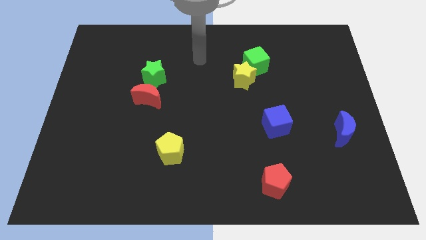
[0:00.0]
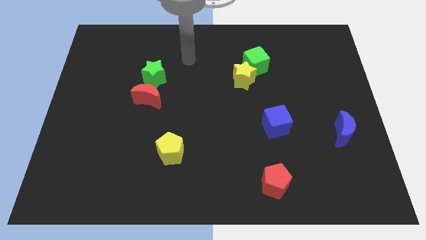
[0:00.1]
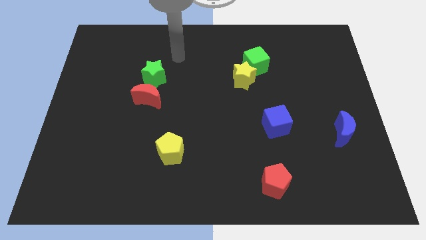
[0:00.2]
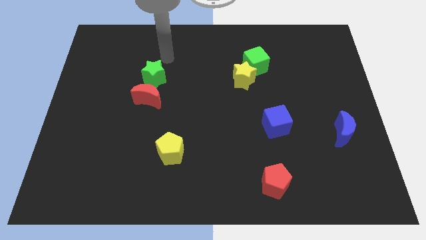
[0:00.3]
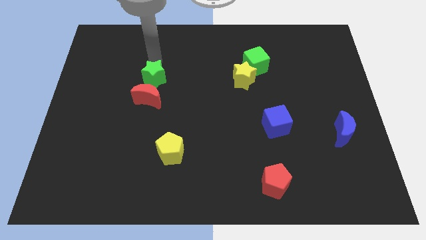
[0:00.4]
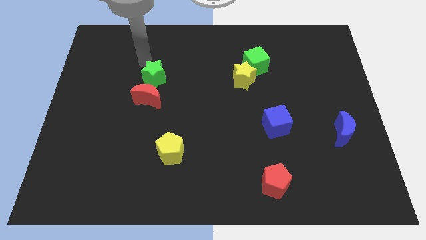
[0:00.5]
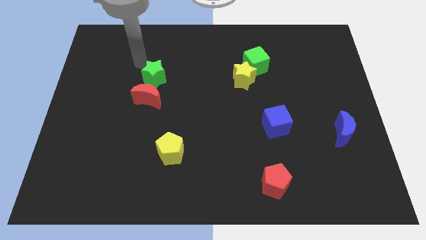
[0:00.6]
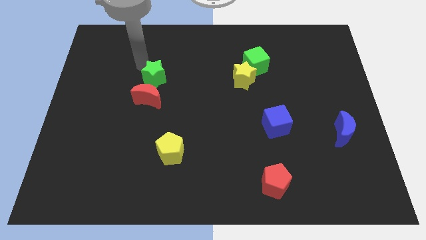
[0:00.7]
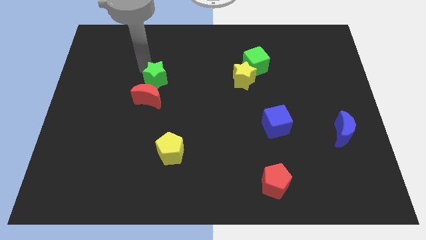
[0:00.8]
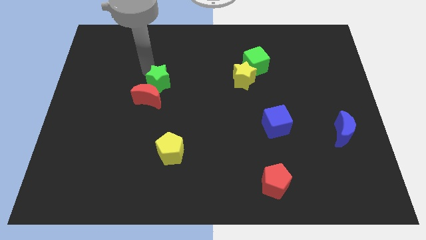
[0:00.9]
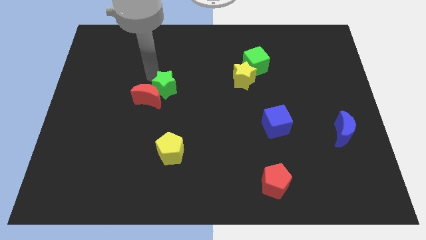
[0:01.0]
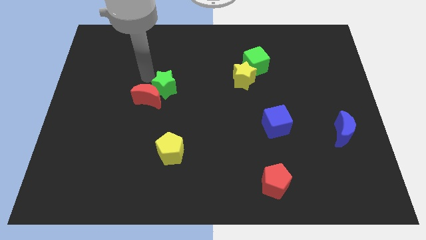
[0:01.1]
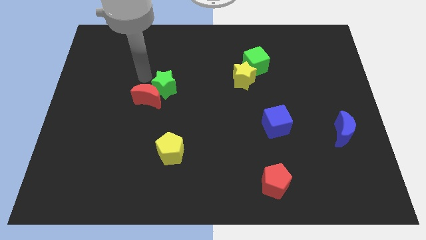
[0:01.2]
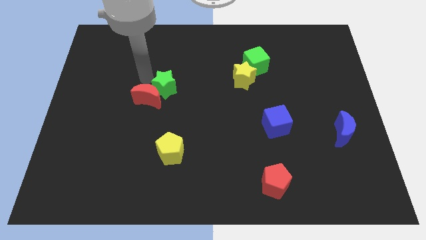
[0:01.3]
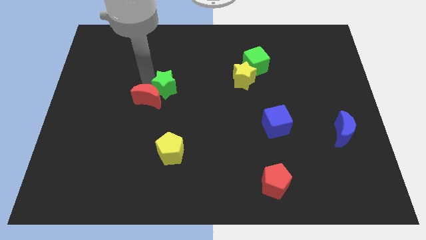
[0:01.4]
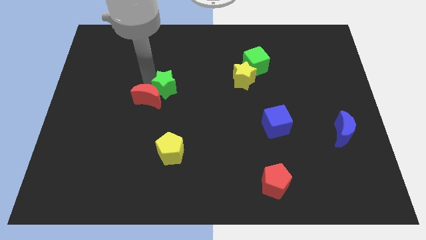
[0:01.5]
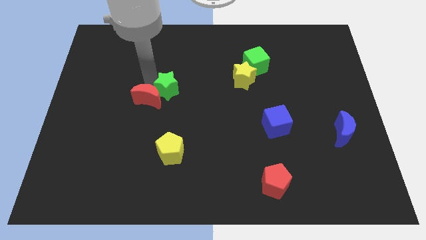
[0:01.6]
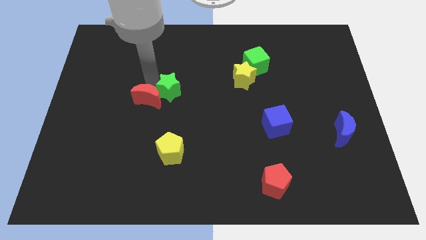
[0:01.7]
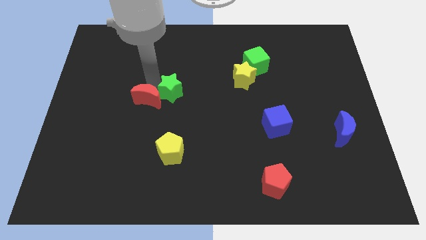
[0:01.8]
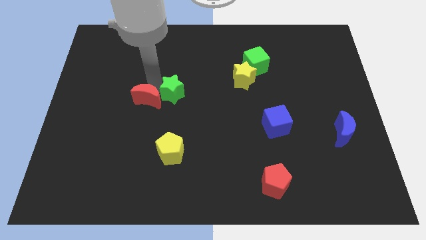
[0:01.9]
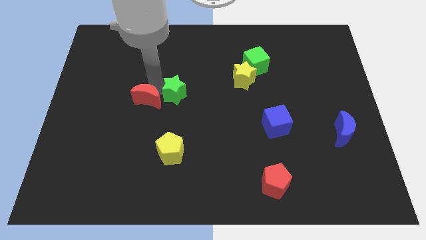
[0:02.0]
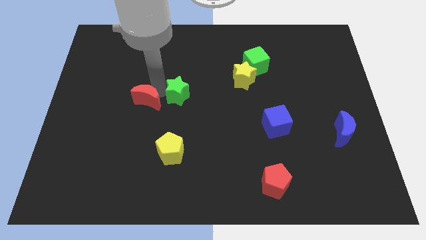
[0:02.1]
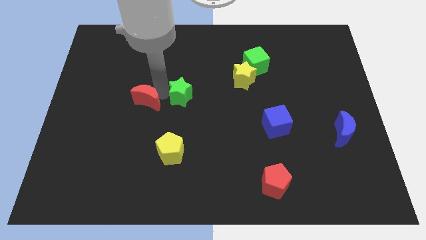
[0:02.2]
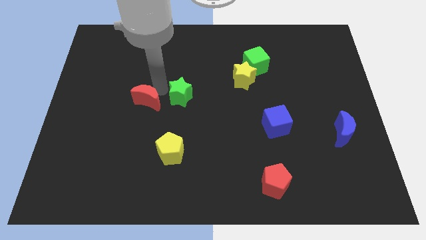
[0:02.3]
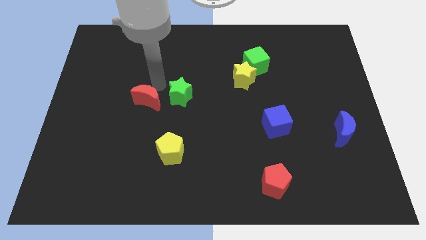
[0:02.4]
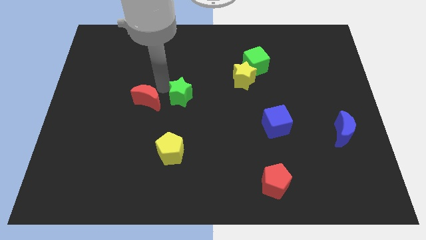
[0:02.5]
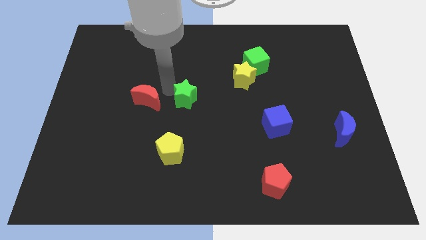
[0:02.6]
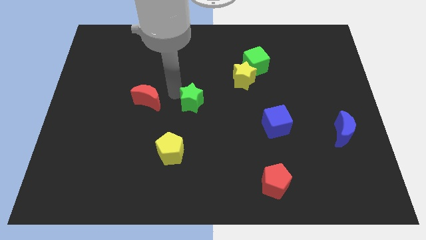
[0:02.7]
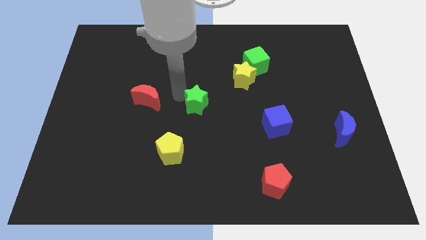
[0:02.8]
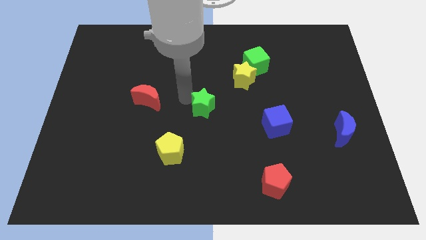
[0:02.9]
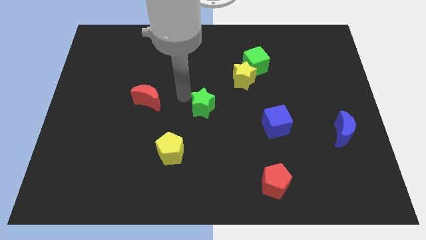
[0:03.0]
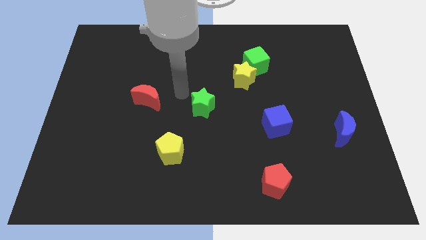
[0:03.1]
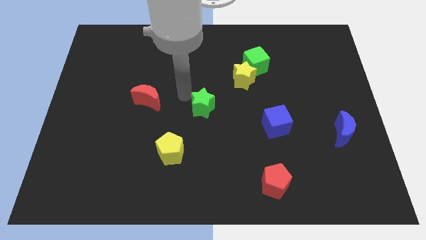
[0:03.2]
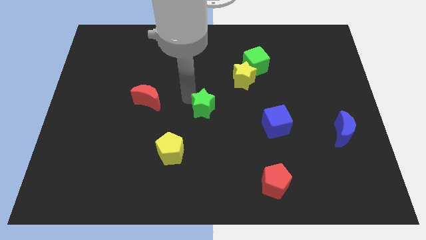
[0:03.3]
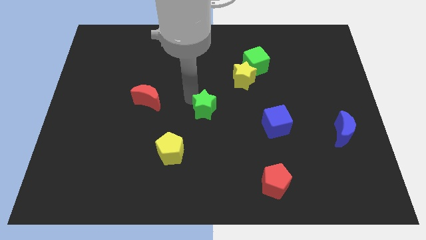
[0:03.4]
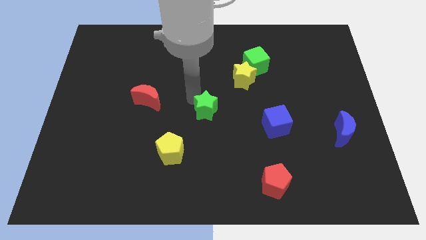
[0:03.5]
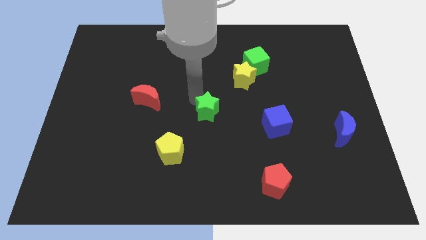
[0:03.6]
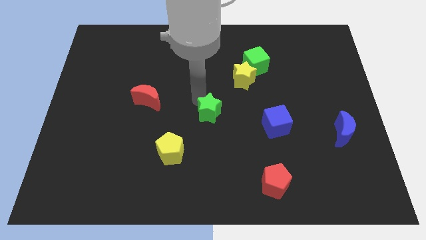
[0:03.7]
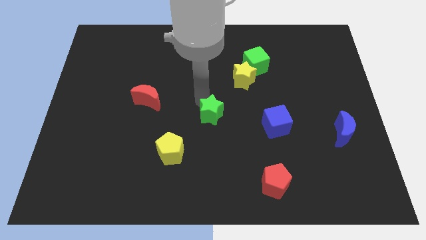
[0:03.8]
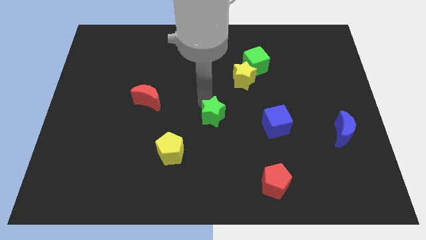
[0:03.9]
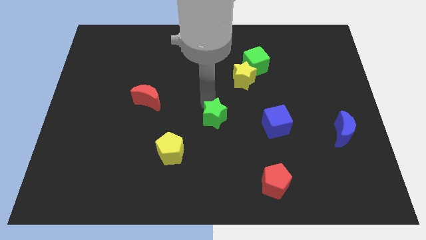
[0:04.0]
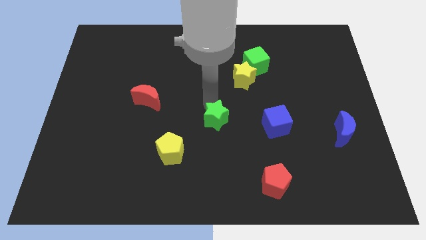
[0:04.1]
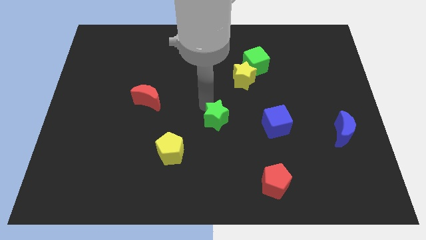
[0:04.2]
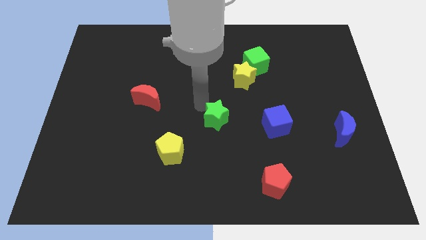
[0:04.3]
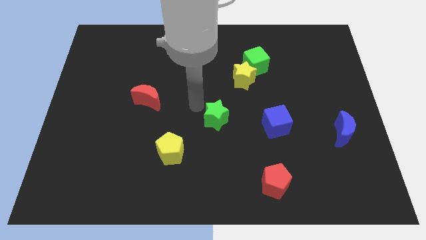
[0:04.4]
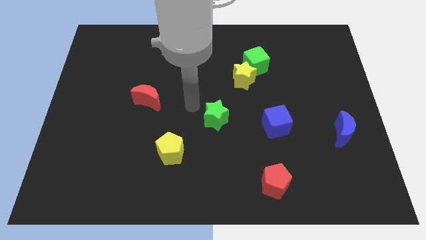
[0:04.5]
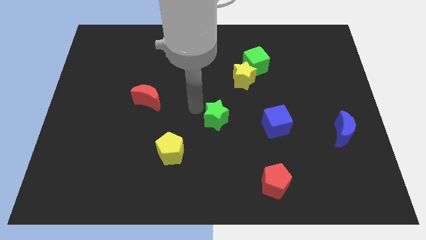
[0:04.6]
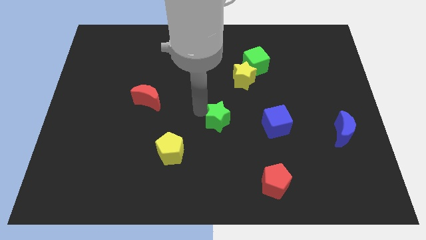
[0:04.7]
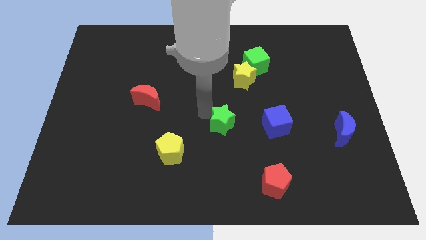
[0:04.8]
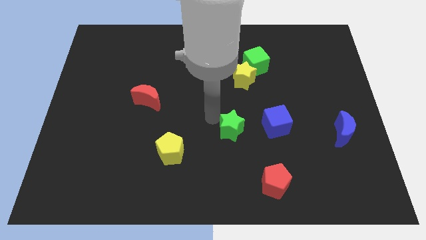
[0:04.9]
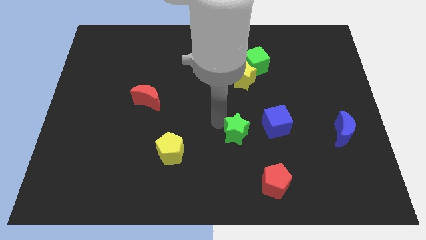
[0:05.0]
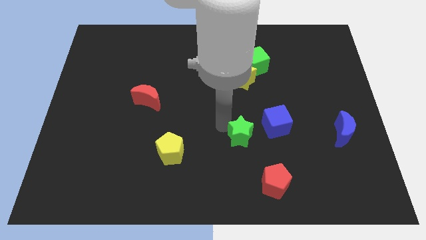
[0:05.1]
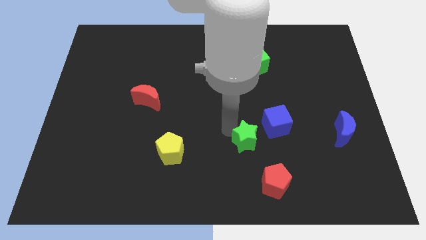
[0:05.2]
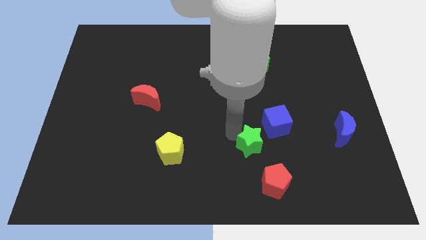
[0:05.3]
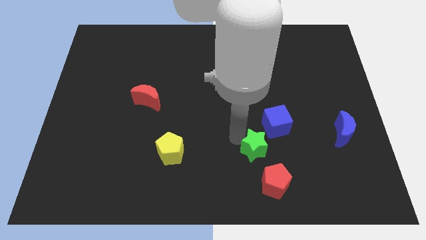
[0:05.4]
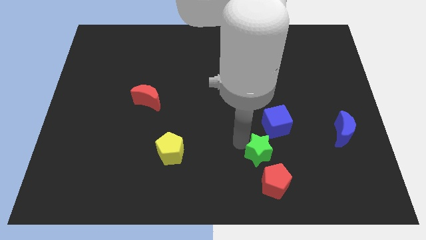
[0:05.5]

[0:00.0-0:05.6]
put the green star to the bottom side of the blue cube

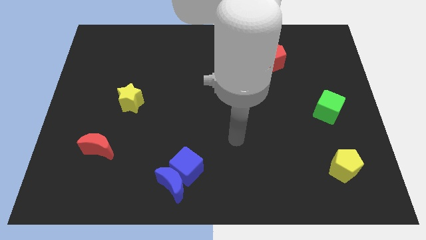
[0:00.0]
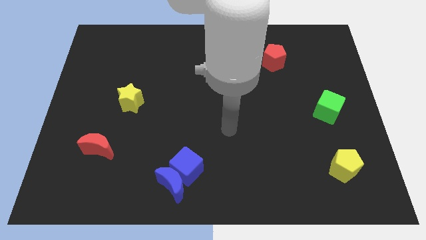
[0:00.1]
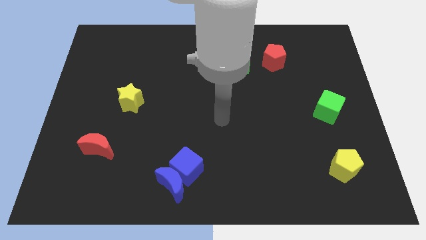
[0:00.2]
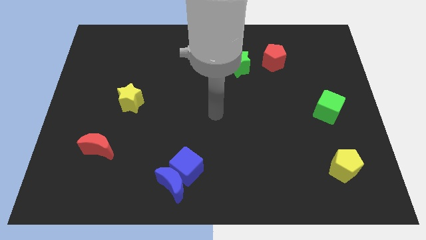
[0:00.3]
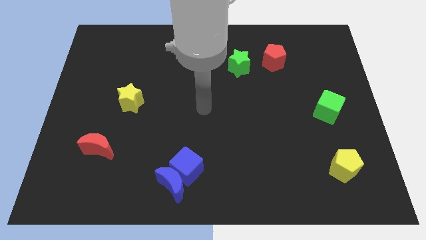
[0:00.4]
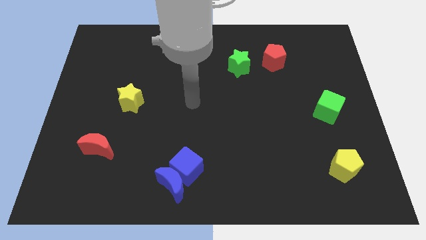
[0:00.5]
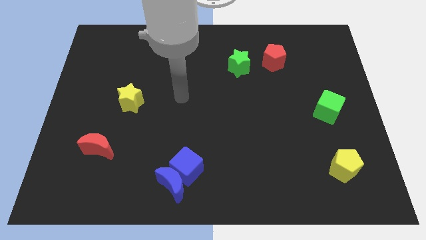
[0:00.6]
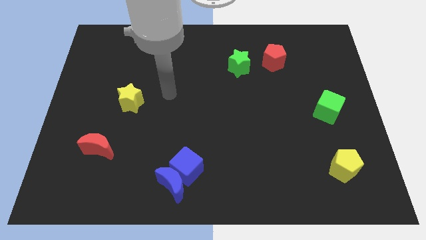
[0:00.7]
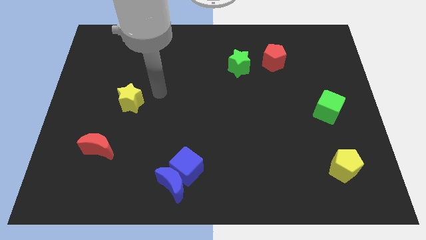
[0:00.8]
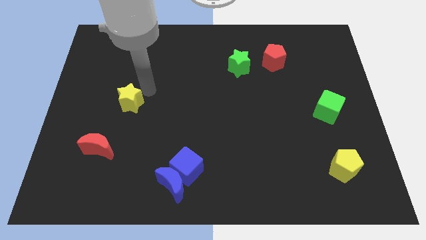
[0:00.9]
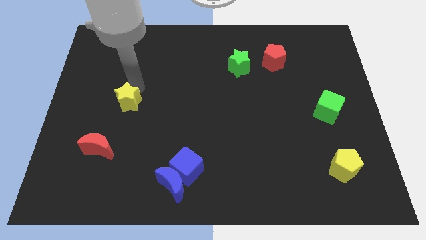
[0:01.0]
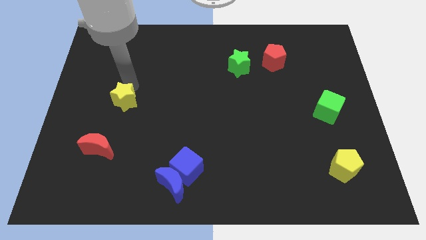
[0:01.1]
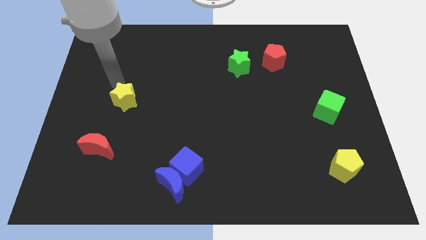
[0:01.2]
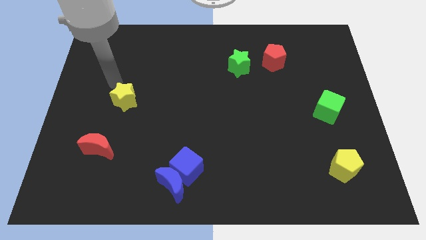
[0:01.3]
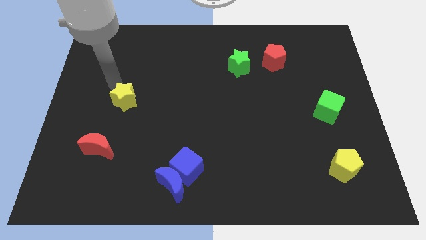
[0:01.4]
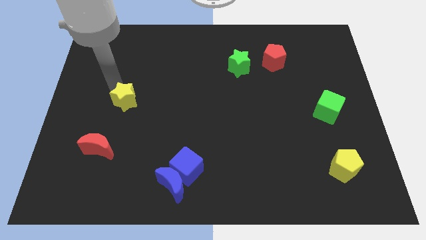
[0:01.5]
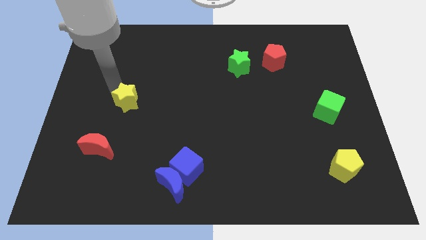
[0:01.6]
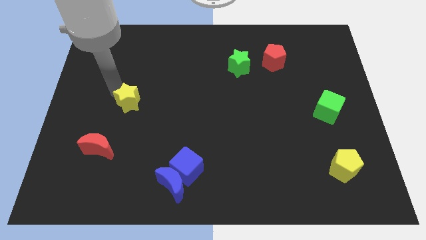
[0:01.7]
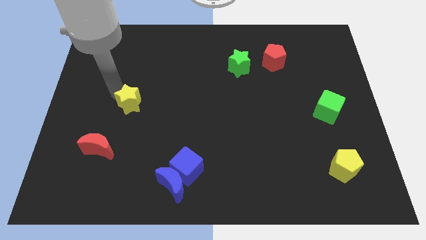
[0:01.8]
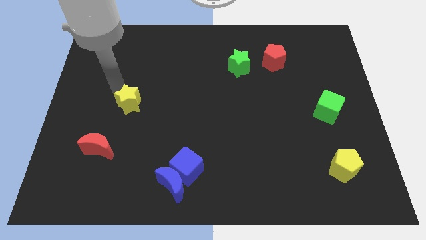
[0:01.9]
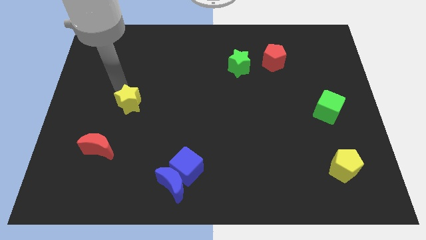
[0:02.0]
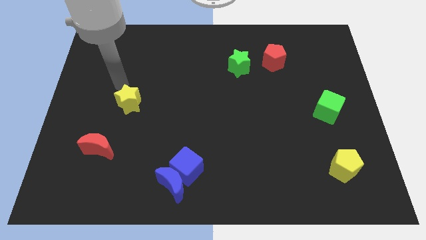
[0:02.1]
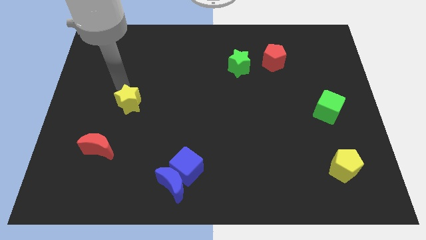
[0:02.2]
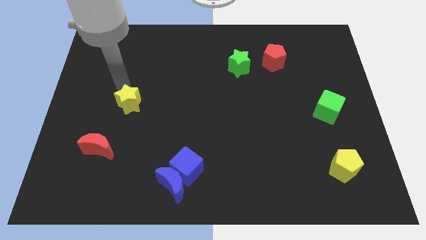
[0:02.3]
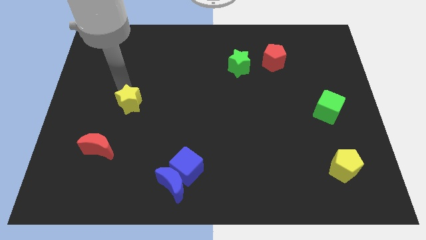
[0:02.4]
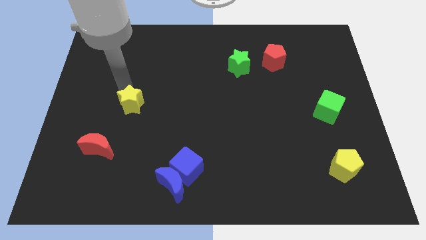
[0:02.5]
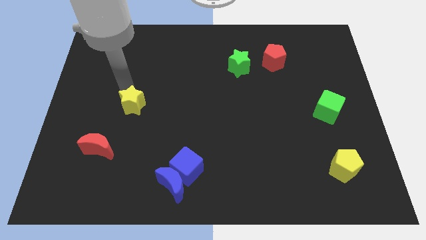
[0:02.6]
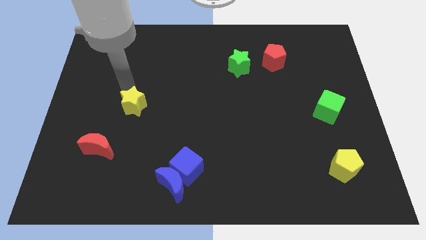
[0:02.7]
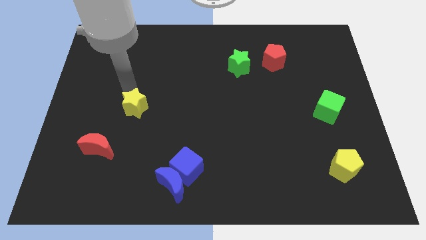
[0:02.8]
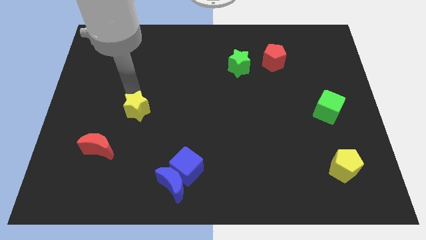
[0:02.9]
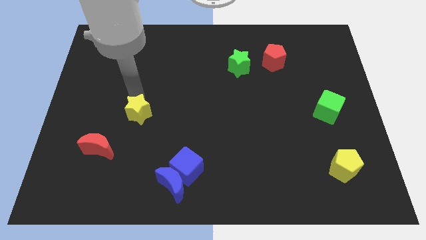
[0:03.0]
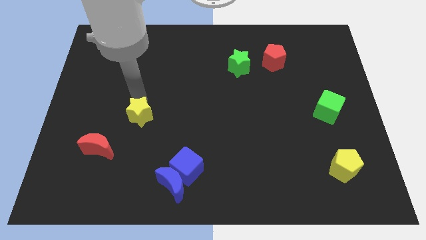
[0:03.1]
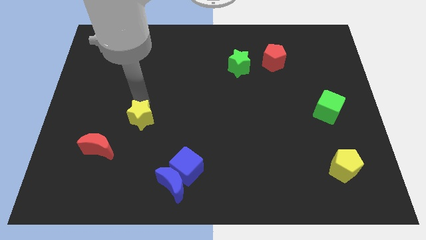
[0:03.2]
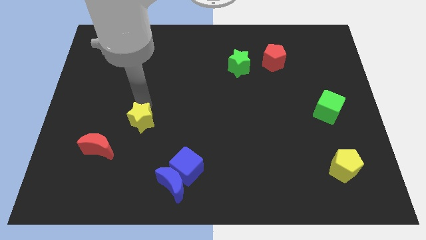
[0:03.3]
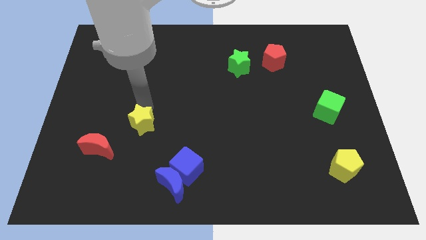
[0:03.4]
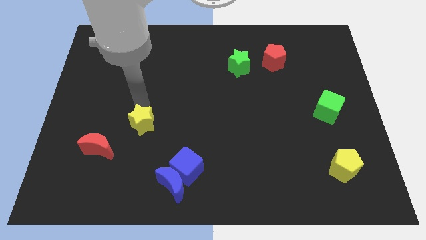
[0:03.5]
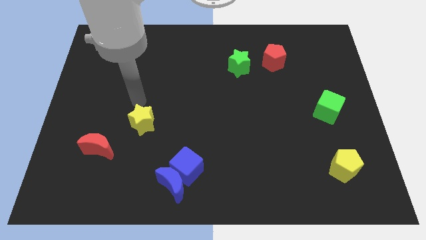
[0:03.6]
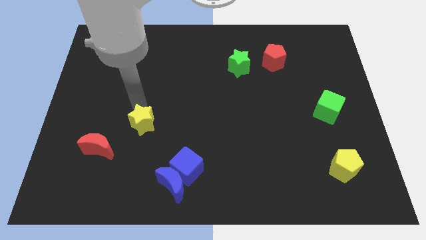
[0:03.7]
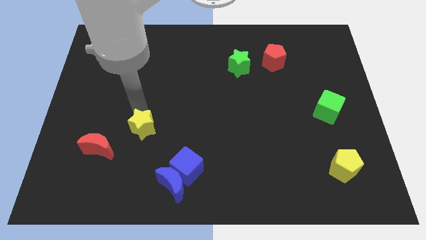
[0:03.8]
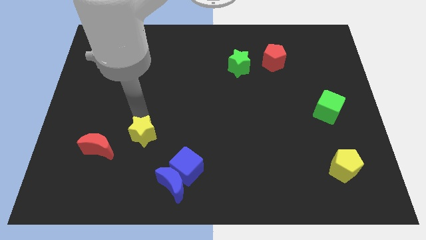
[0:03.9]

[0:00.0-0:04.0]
slide the yellow star to the right of the red moon
